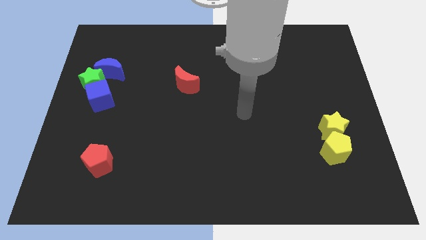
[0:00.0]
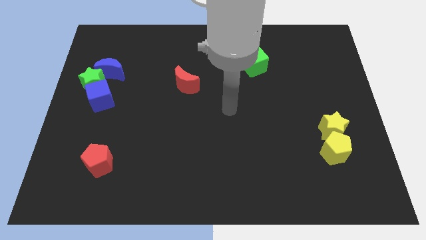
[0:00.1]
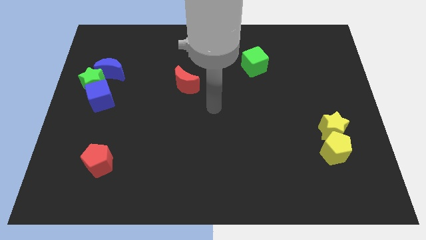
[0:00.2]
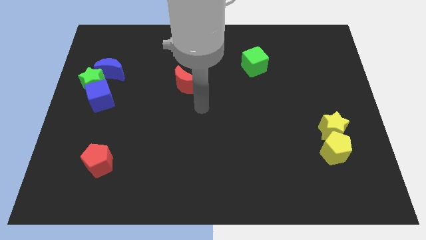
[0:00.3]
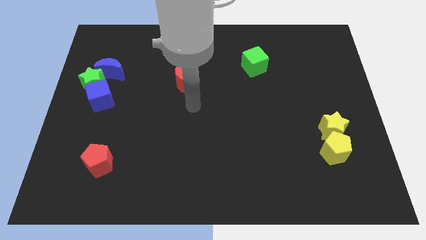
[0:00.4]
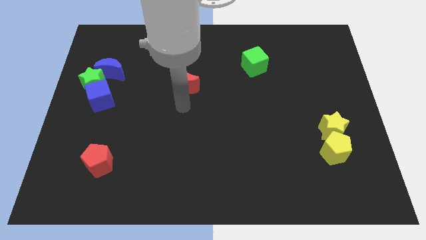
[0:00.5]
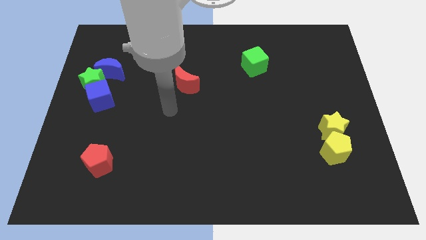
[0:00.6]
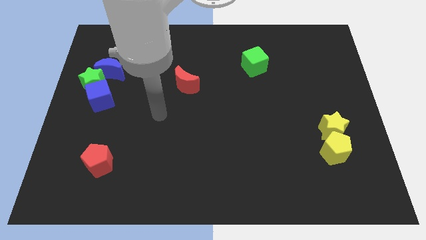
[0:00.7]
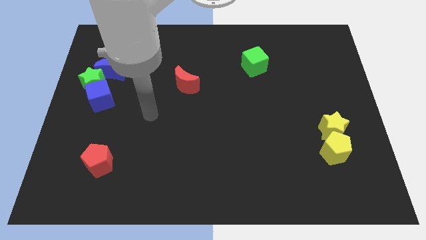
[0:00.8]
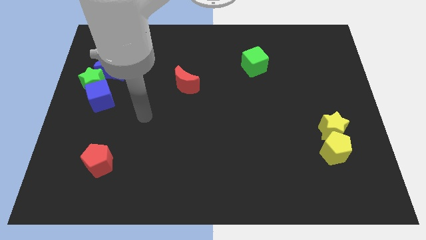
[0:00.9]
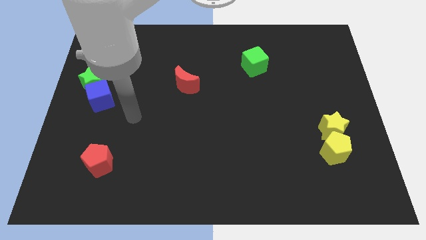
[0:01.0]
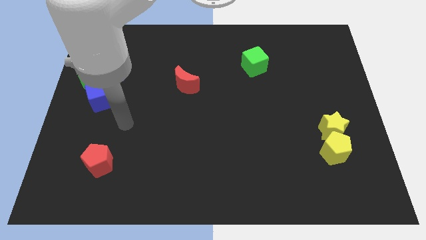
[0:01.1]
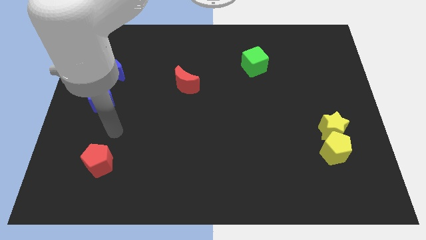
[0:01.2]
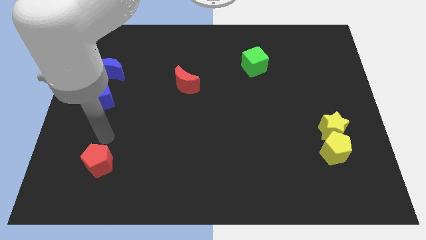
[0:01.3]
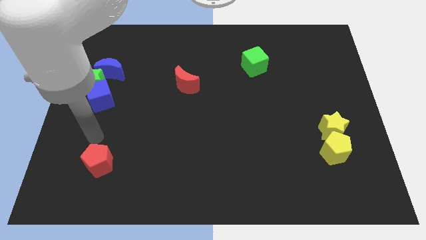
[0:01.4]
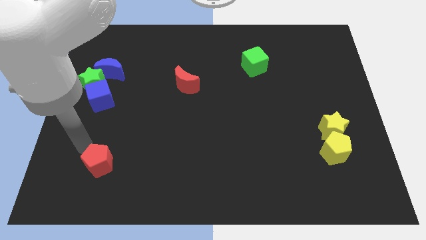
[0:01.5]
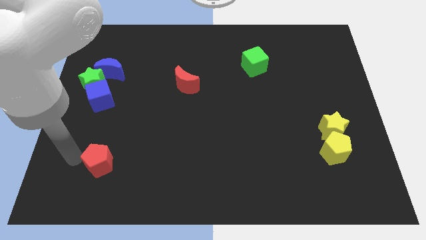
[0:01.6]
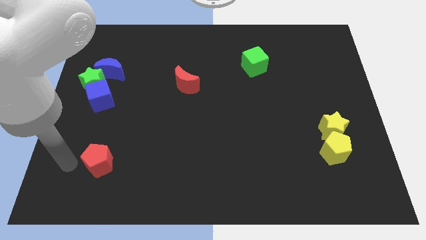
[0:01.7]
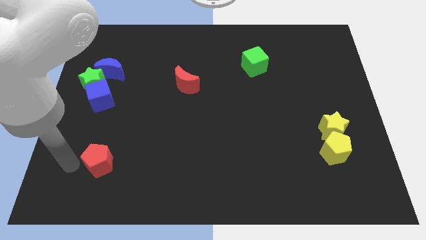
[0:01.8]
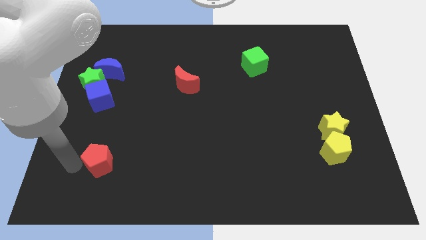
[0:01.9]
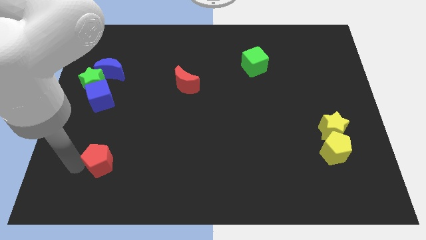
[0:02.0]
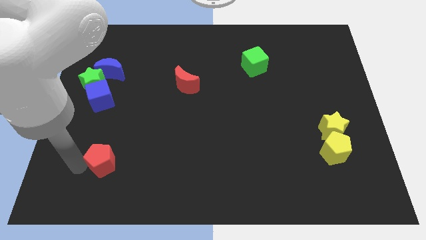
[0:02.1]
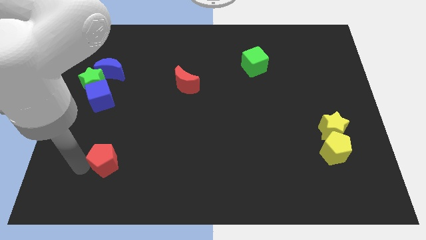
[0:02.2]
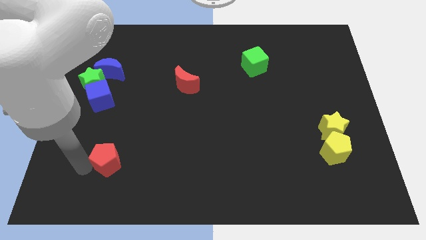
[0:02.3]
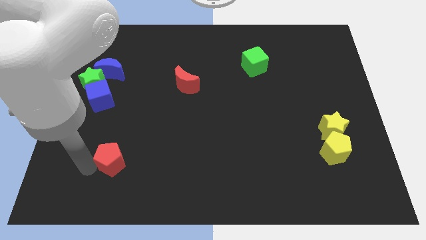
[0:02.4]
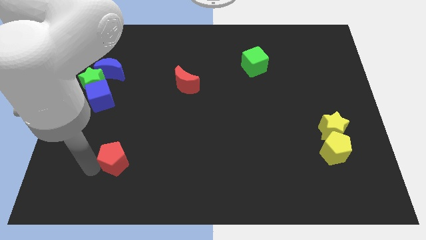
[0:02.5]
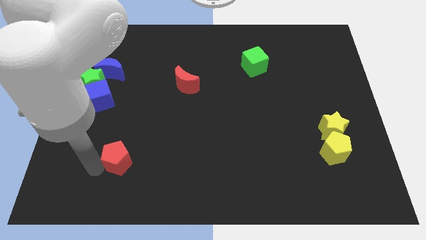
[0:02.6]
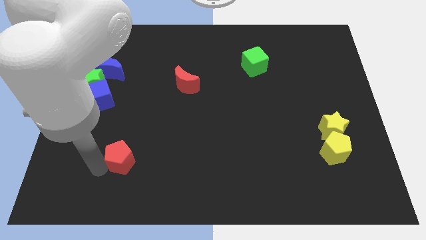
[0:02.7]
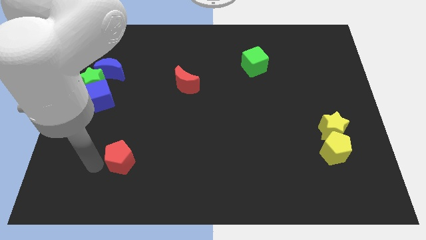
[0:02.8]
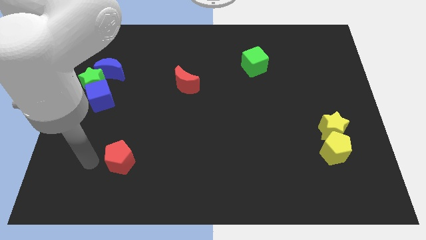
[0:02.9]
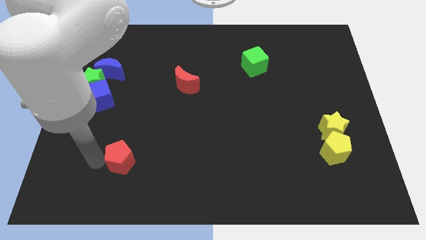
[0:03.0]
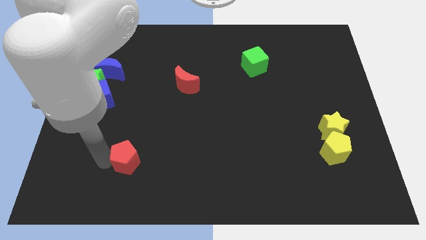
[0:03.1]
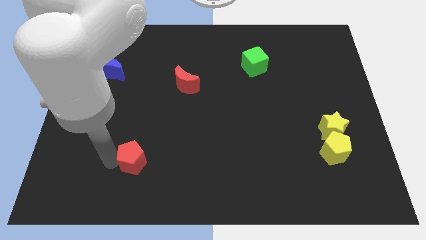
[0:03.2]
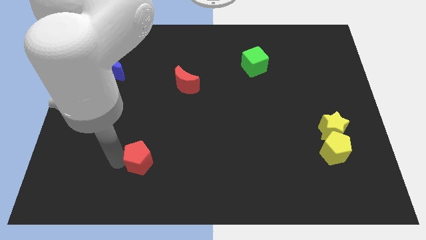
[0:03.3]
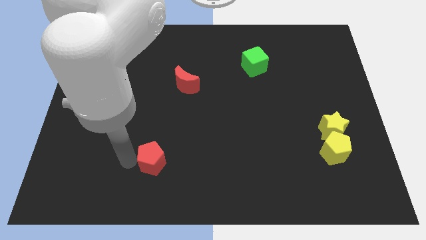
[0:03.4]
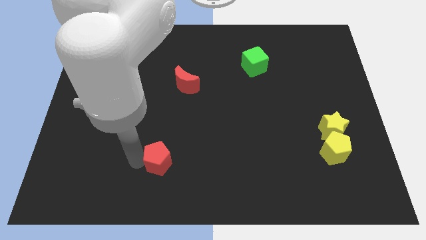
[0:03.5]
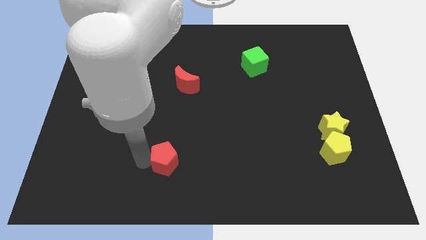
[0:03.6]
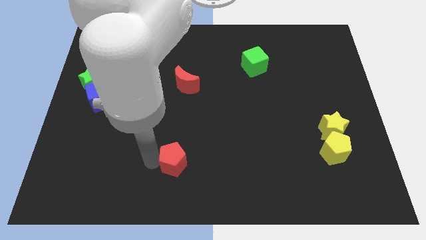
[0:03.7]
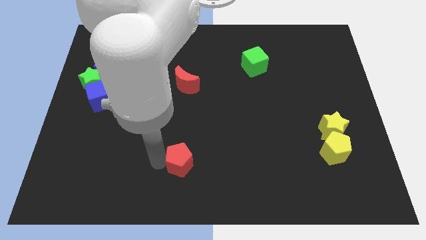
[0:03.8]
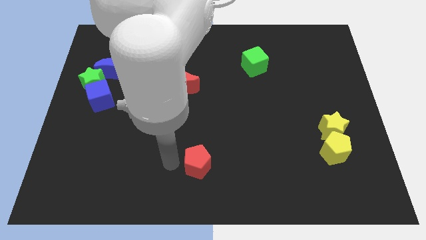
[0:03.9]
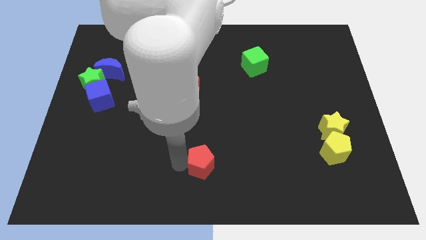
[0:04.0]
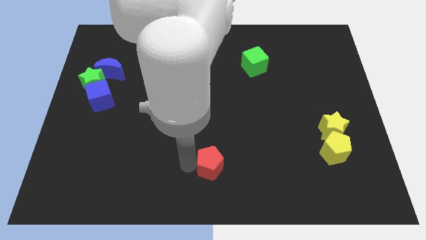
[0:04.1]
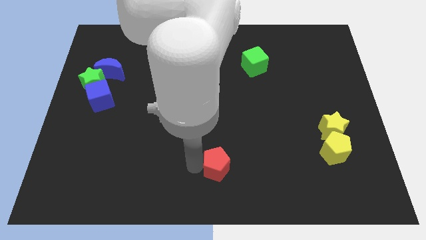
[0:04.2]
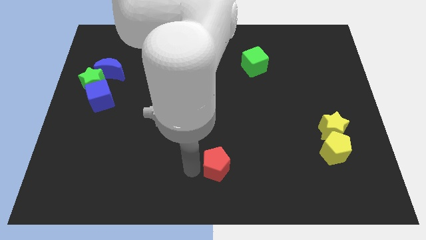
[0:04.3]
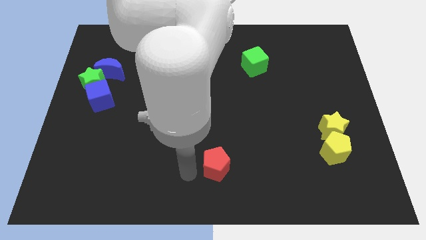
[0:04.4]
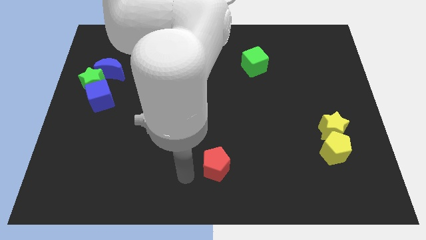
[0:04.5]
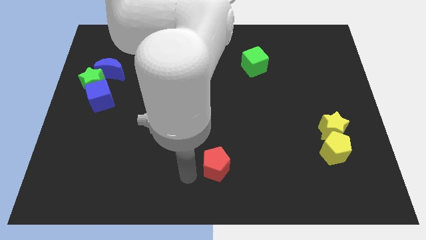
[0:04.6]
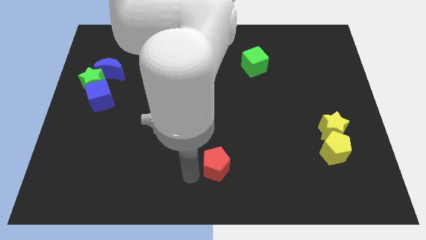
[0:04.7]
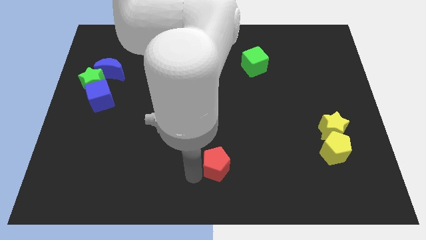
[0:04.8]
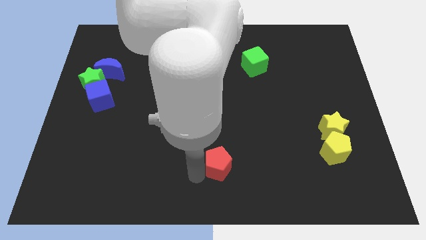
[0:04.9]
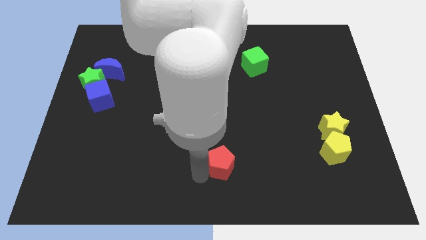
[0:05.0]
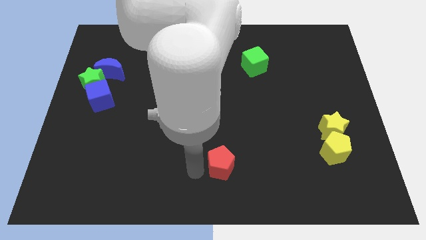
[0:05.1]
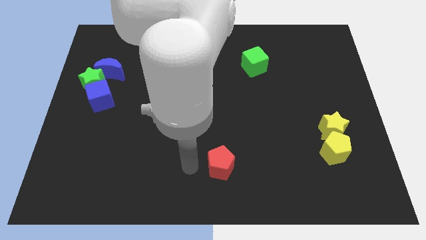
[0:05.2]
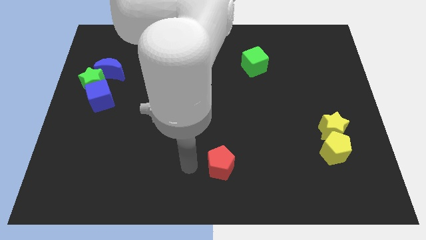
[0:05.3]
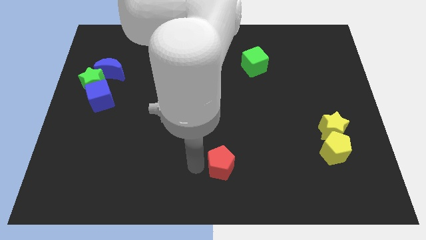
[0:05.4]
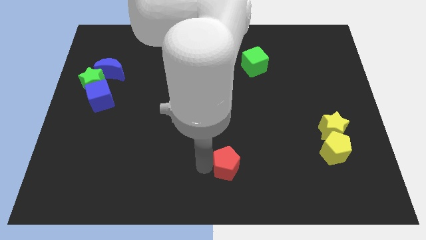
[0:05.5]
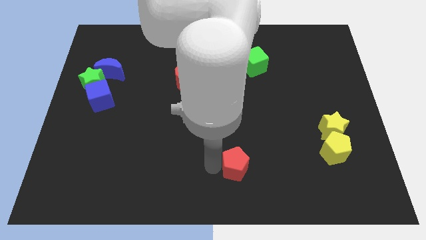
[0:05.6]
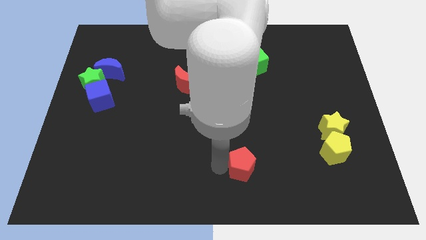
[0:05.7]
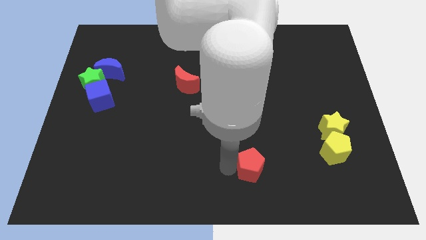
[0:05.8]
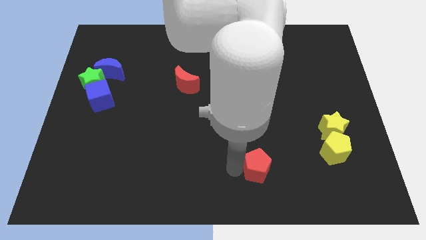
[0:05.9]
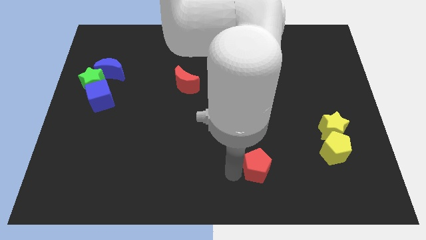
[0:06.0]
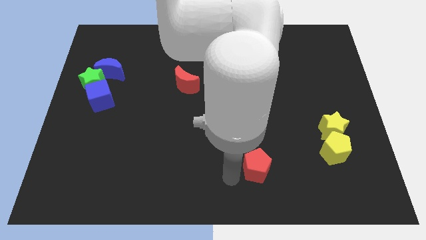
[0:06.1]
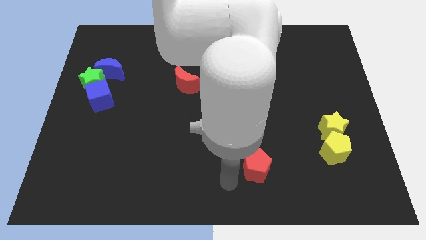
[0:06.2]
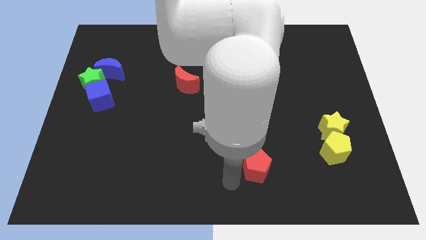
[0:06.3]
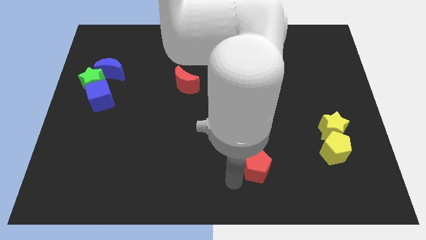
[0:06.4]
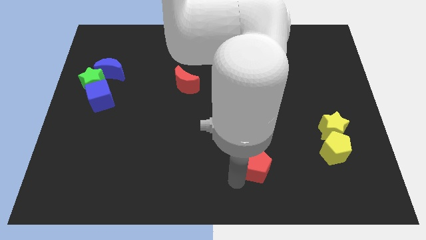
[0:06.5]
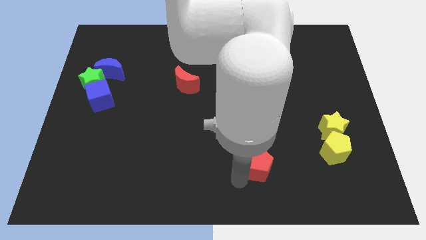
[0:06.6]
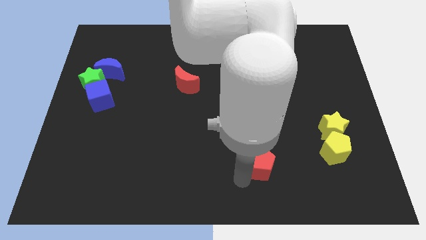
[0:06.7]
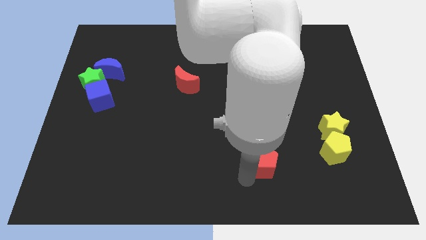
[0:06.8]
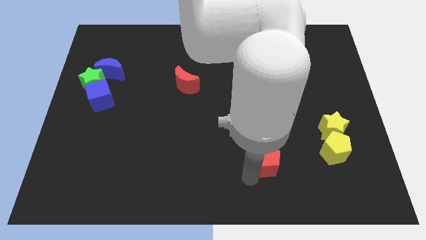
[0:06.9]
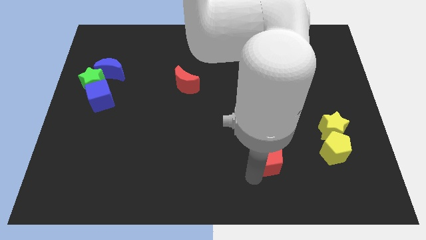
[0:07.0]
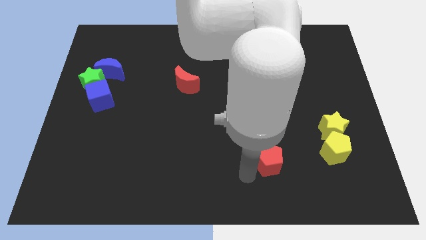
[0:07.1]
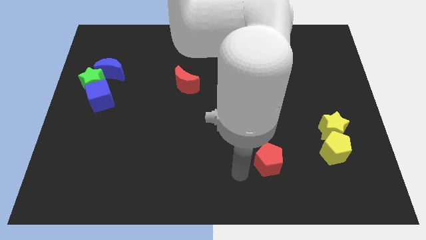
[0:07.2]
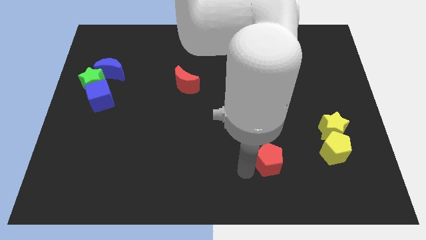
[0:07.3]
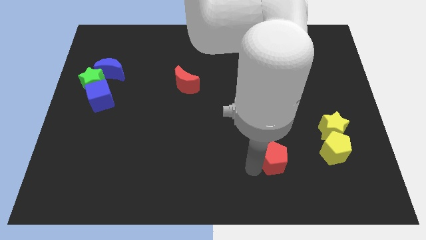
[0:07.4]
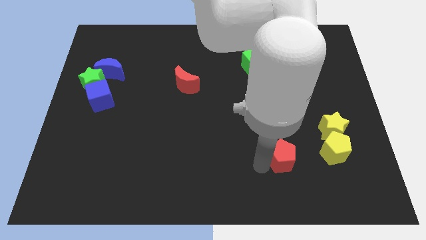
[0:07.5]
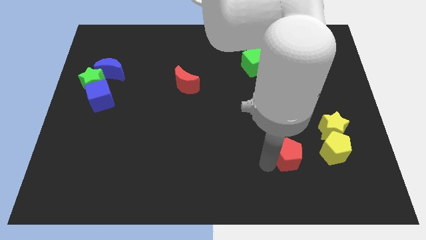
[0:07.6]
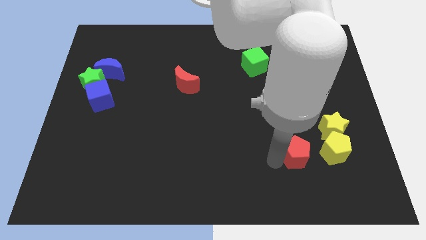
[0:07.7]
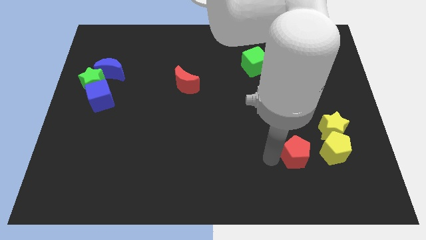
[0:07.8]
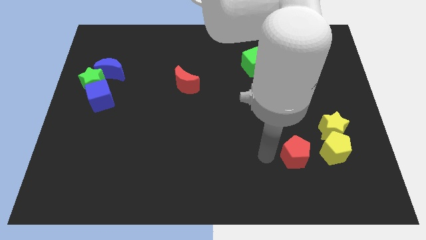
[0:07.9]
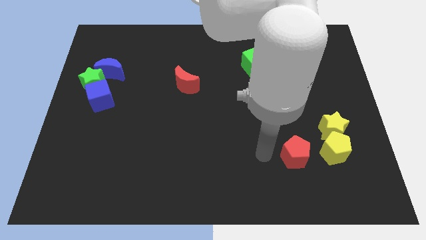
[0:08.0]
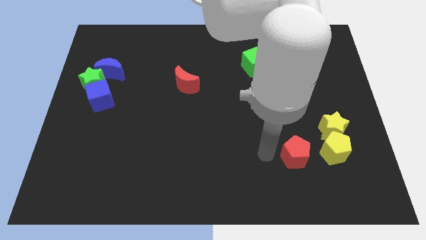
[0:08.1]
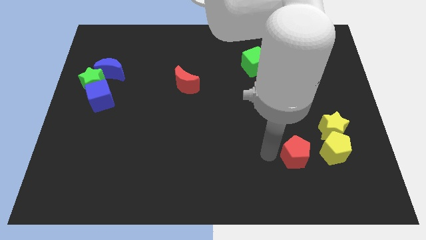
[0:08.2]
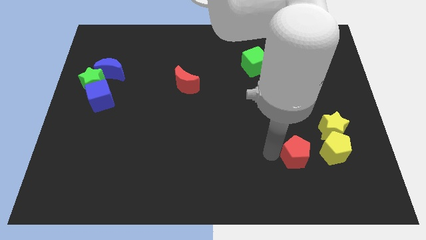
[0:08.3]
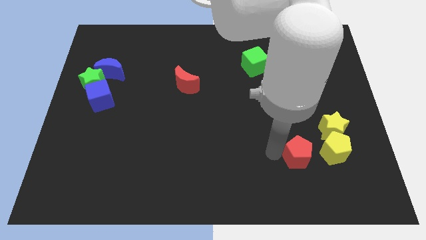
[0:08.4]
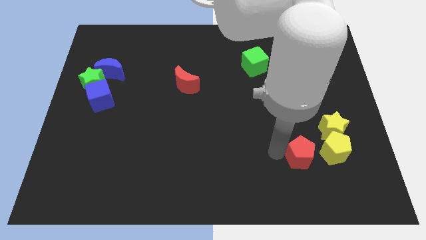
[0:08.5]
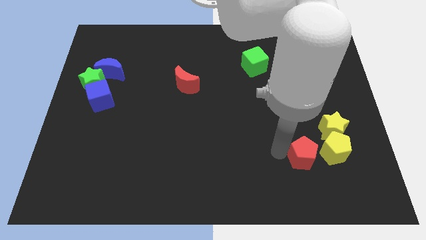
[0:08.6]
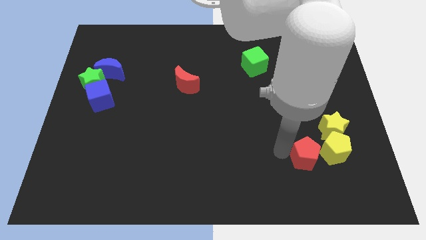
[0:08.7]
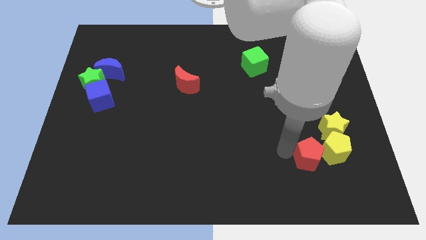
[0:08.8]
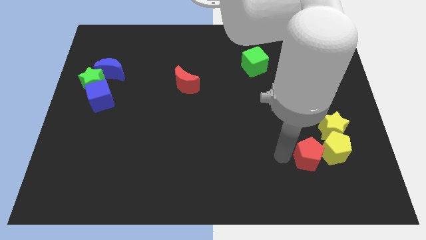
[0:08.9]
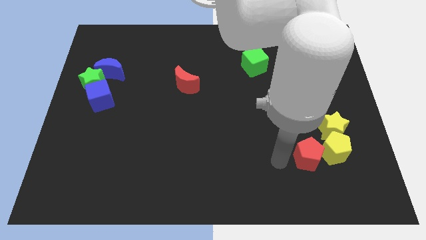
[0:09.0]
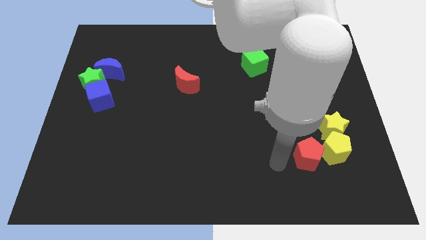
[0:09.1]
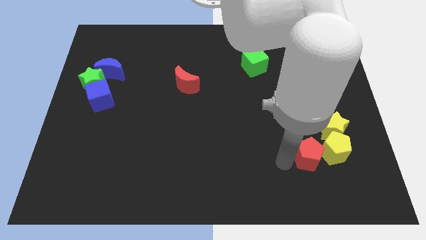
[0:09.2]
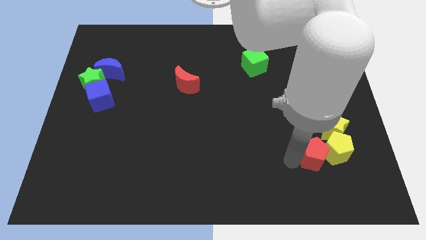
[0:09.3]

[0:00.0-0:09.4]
slide the red pentagon next to the yellow pentagon
